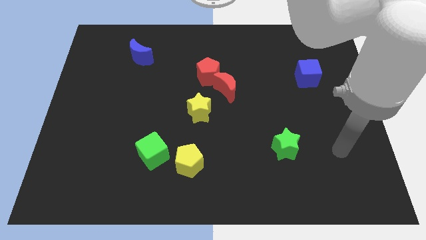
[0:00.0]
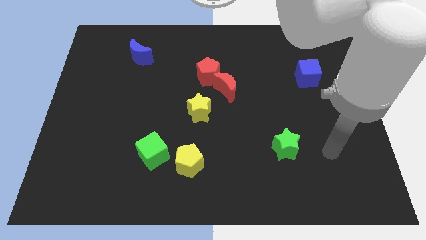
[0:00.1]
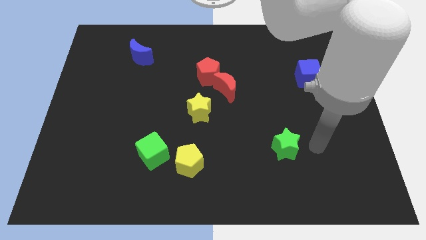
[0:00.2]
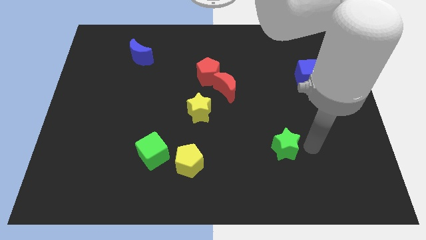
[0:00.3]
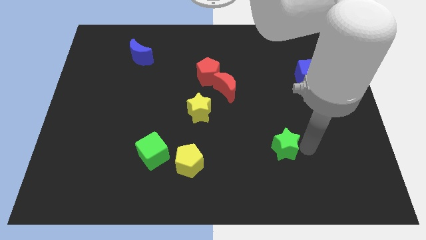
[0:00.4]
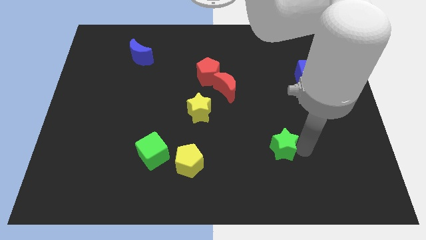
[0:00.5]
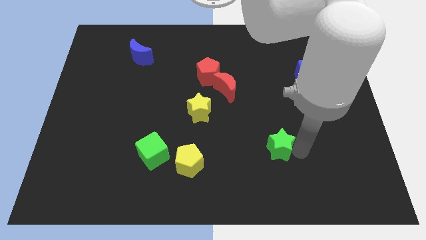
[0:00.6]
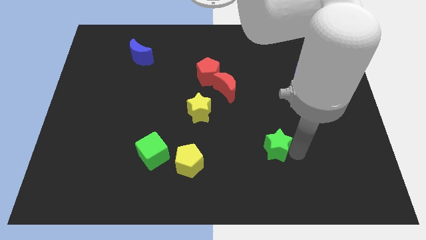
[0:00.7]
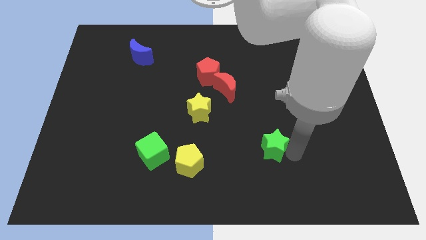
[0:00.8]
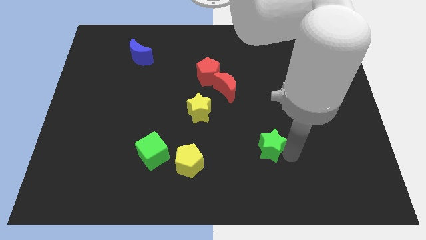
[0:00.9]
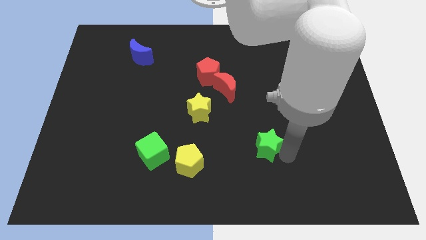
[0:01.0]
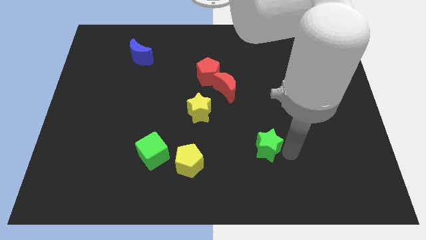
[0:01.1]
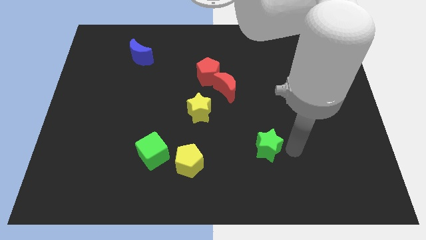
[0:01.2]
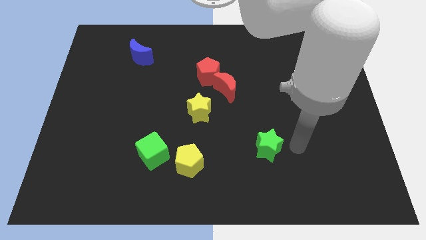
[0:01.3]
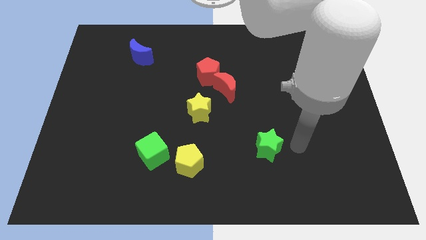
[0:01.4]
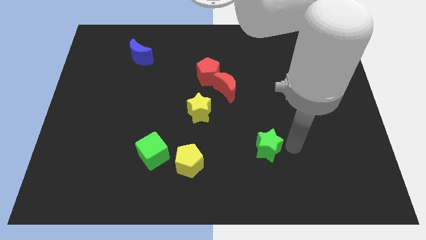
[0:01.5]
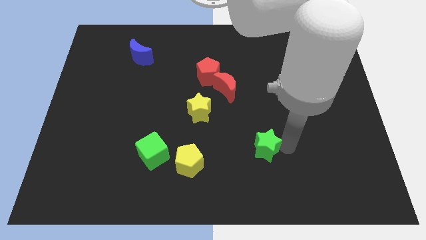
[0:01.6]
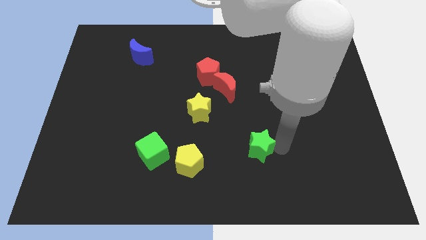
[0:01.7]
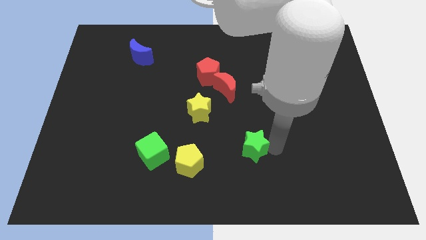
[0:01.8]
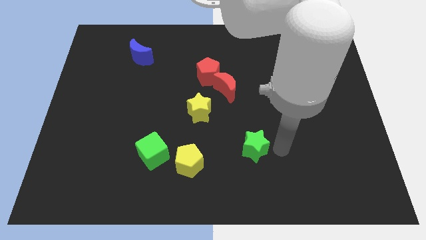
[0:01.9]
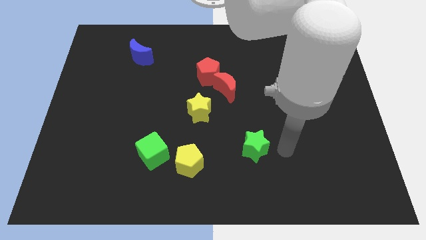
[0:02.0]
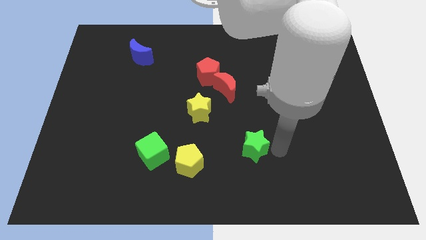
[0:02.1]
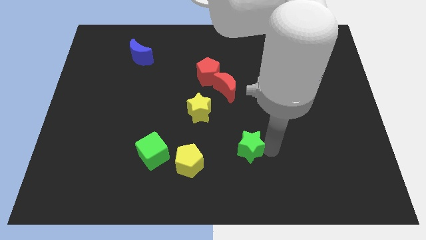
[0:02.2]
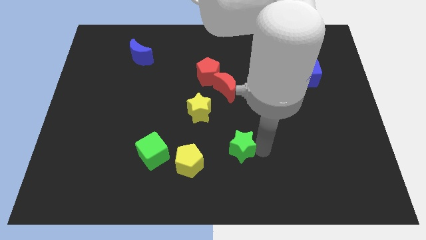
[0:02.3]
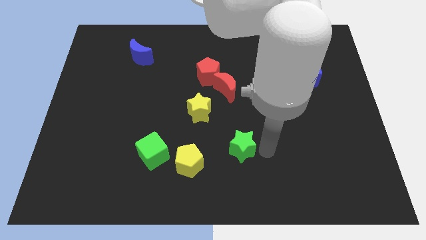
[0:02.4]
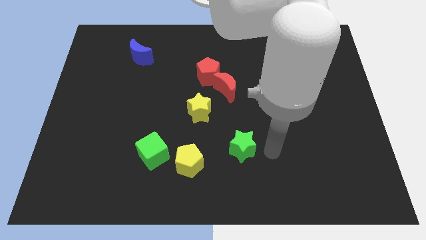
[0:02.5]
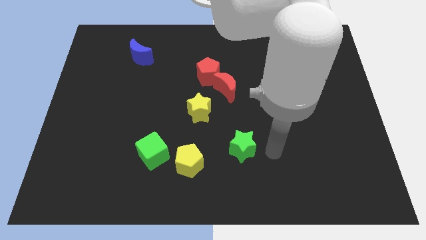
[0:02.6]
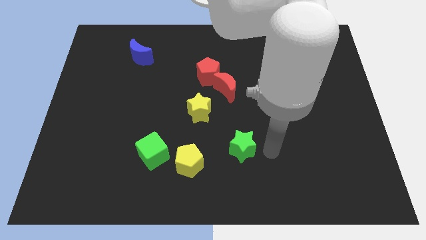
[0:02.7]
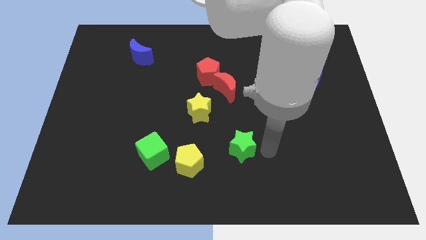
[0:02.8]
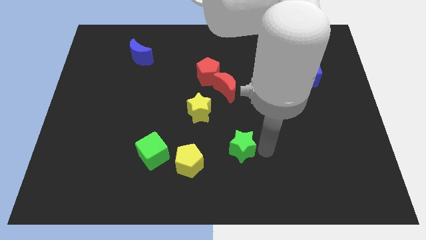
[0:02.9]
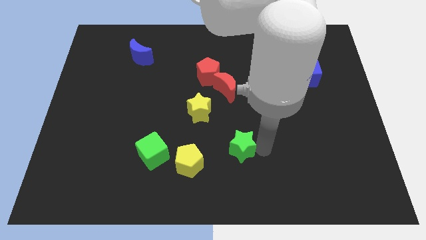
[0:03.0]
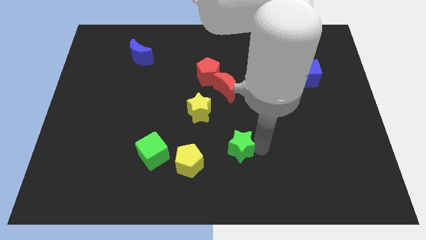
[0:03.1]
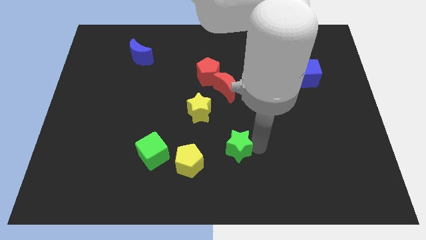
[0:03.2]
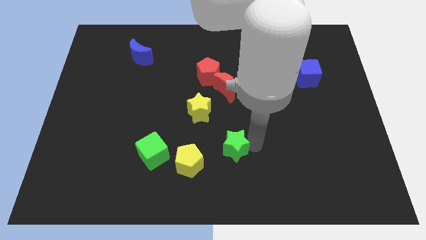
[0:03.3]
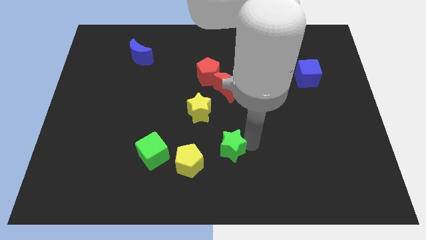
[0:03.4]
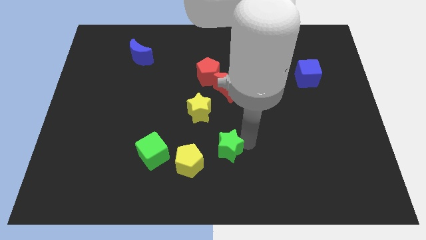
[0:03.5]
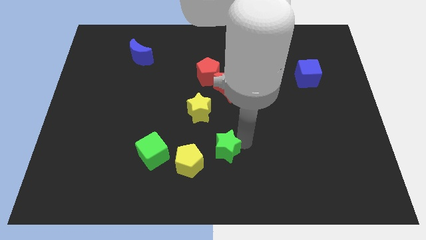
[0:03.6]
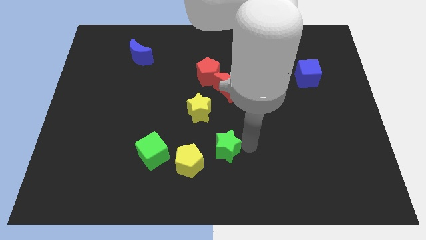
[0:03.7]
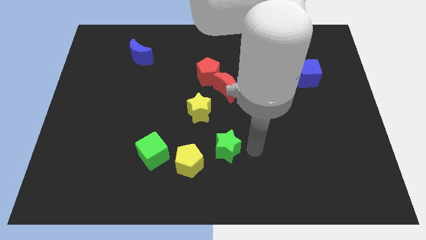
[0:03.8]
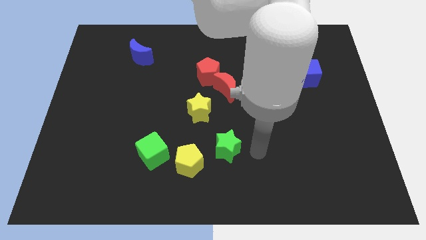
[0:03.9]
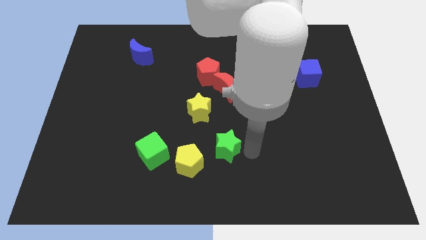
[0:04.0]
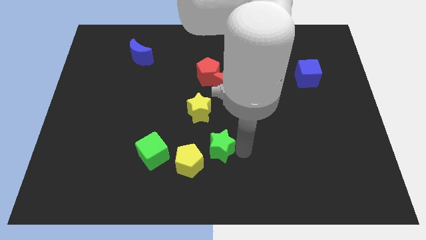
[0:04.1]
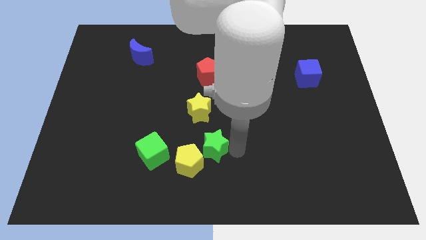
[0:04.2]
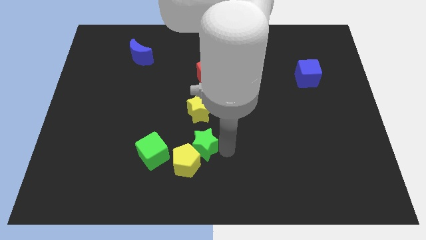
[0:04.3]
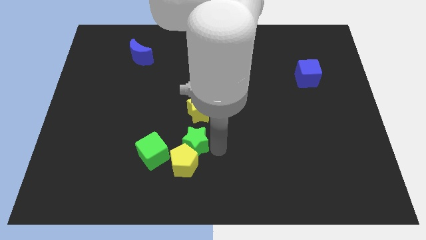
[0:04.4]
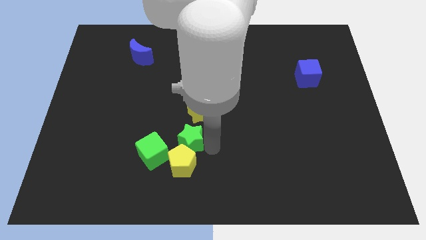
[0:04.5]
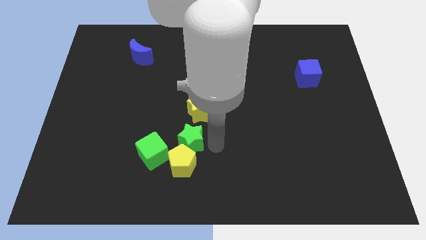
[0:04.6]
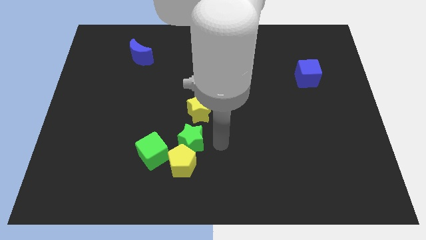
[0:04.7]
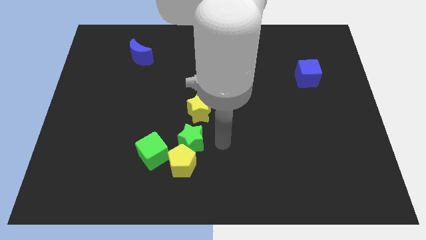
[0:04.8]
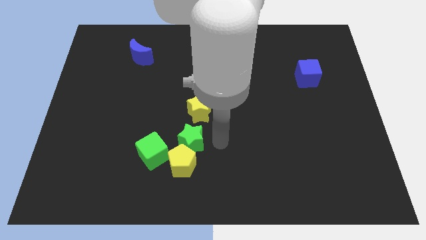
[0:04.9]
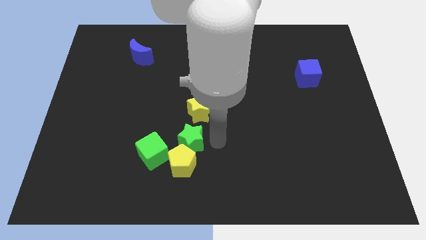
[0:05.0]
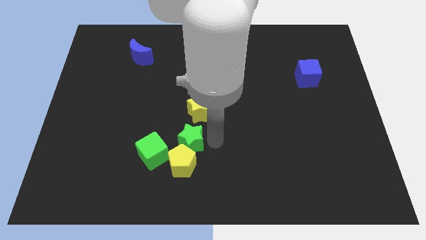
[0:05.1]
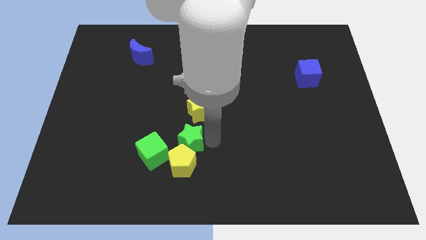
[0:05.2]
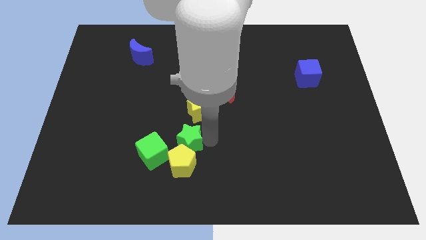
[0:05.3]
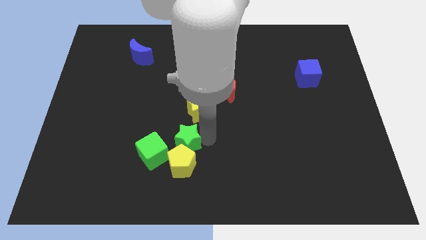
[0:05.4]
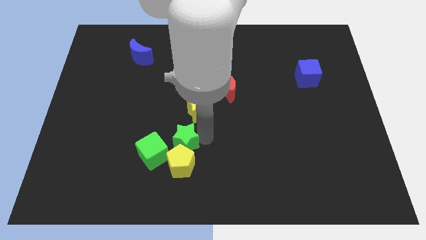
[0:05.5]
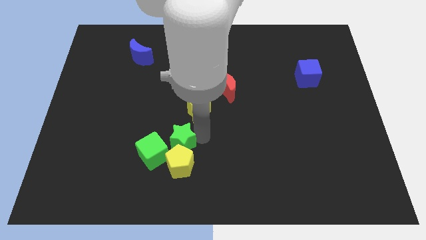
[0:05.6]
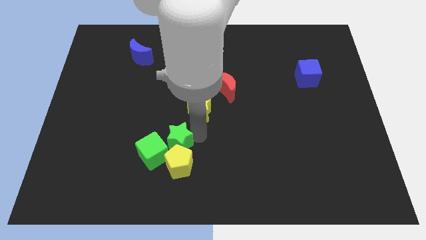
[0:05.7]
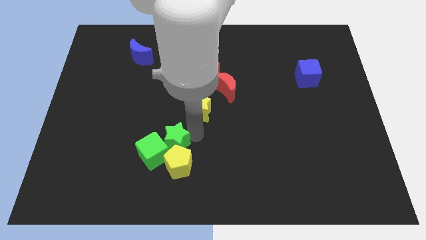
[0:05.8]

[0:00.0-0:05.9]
move the green star close to the green cube

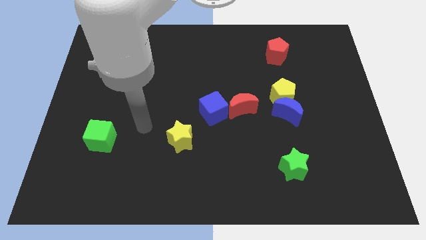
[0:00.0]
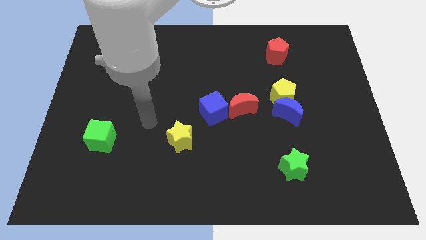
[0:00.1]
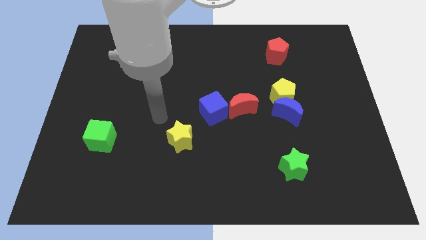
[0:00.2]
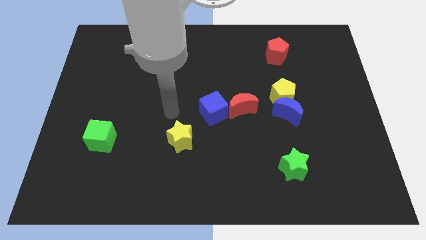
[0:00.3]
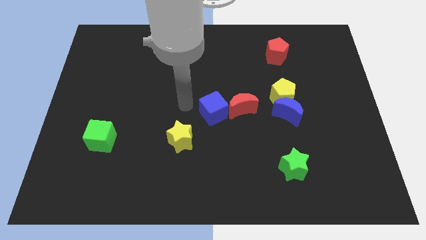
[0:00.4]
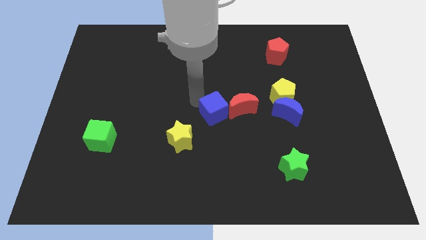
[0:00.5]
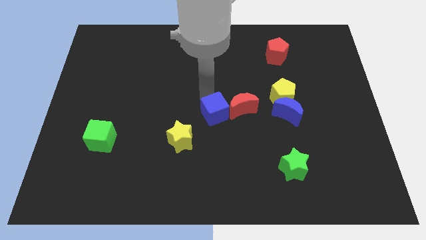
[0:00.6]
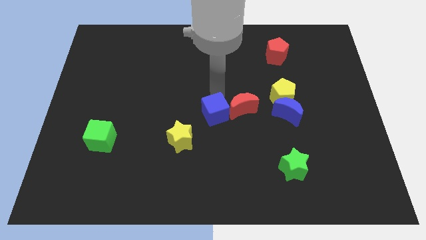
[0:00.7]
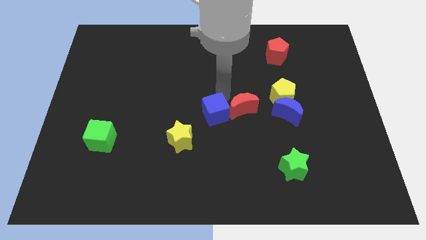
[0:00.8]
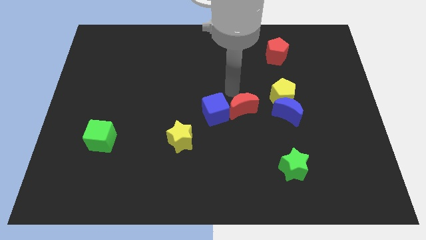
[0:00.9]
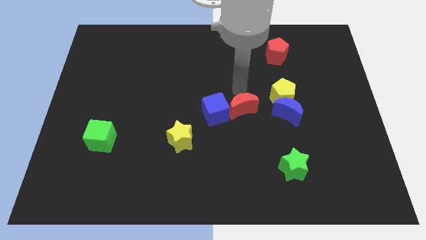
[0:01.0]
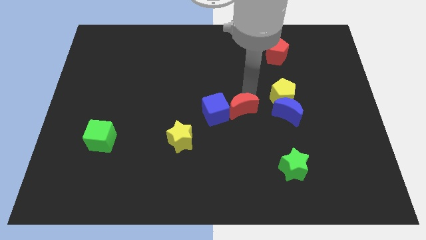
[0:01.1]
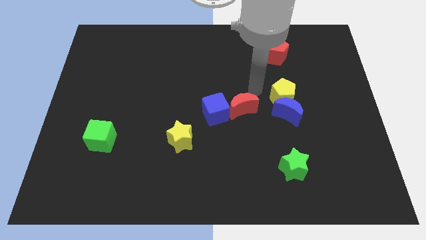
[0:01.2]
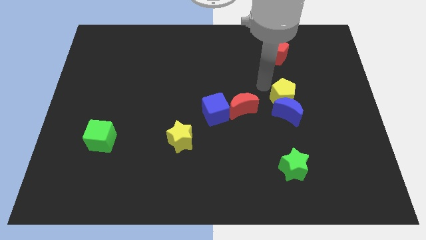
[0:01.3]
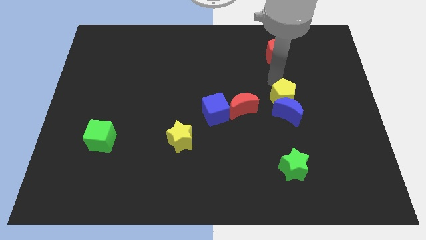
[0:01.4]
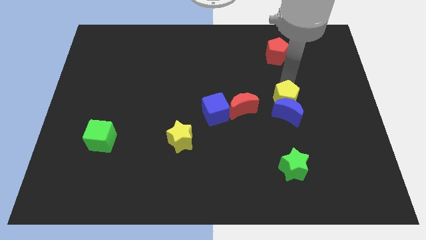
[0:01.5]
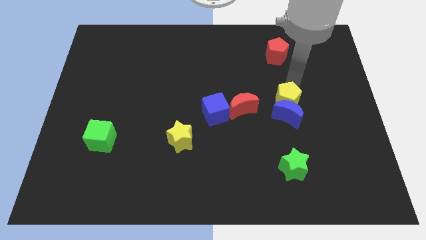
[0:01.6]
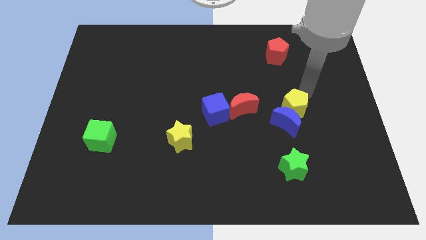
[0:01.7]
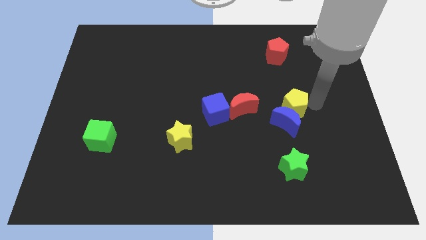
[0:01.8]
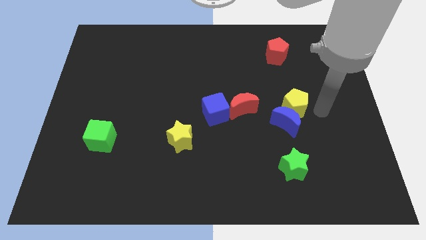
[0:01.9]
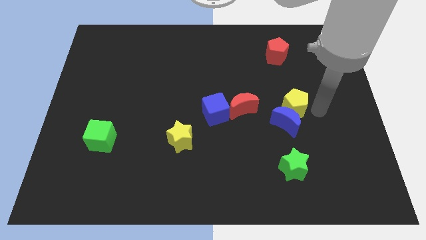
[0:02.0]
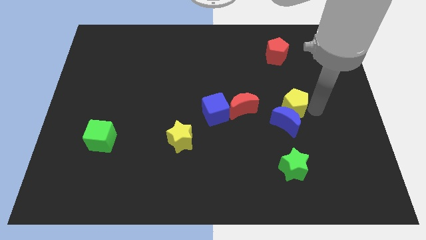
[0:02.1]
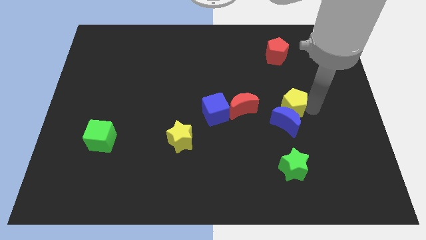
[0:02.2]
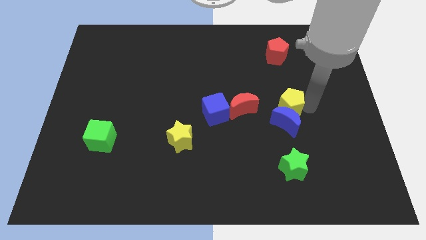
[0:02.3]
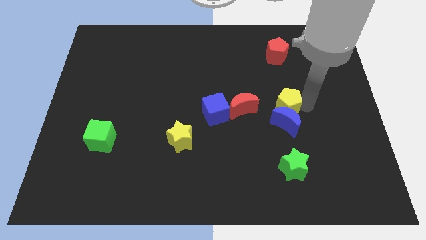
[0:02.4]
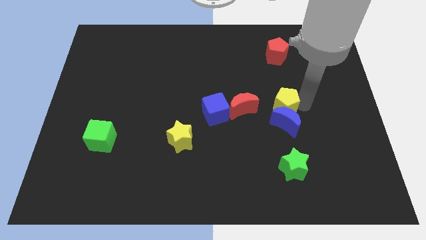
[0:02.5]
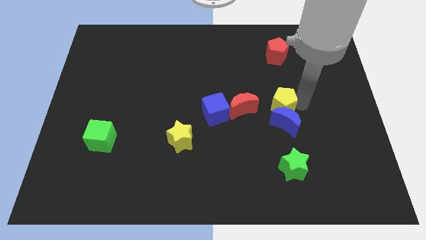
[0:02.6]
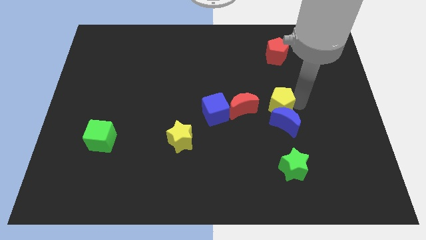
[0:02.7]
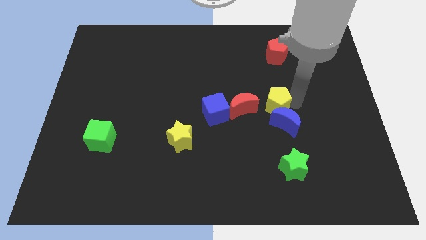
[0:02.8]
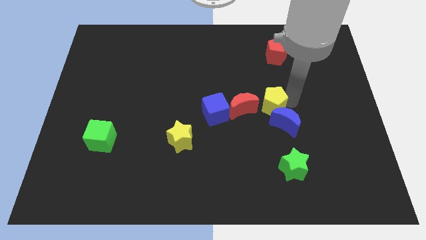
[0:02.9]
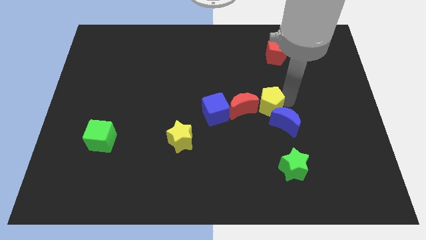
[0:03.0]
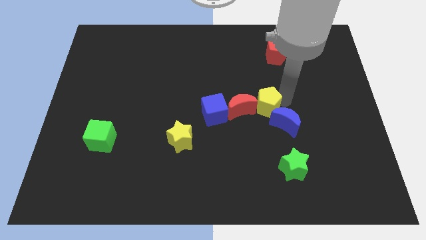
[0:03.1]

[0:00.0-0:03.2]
slide the yellow pentagon towards the red moon
